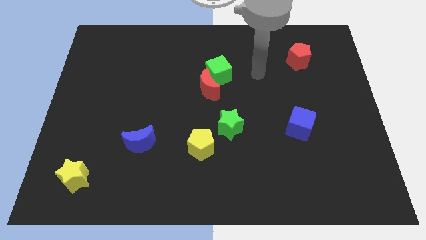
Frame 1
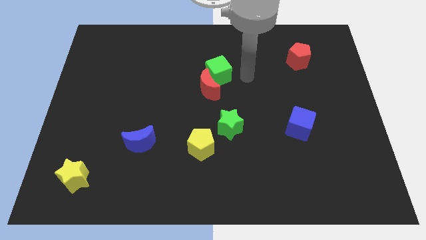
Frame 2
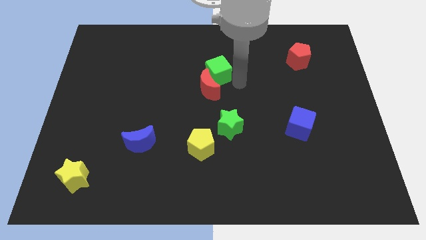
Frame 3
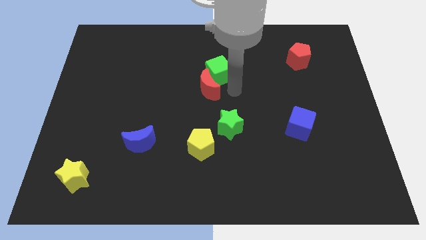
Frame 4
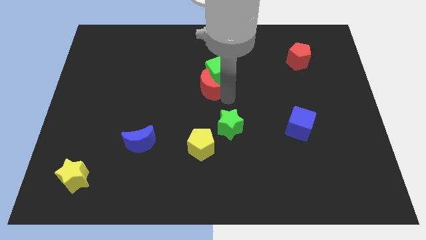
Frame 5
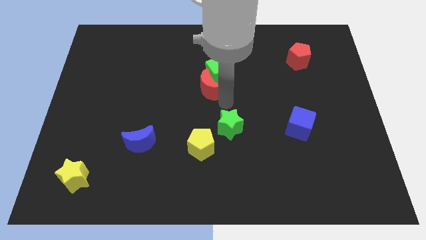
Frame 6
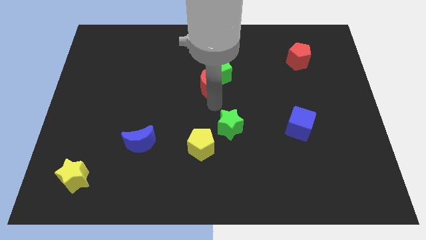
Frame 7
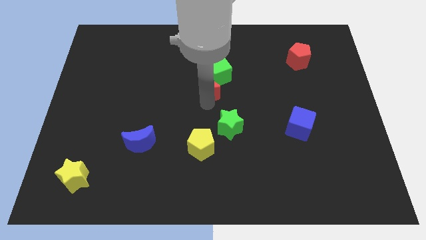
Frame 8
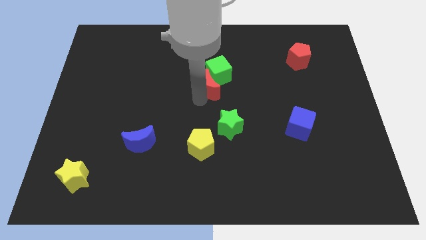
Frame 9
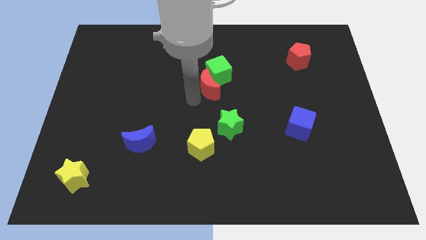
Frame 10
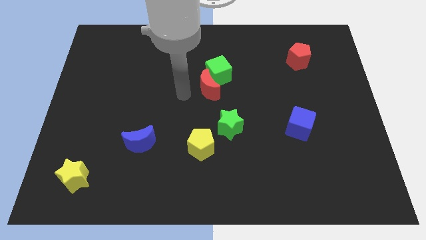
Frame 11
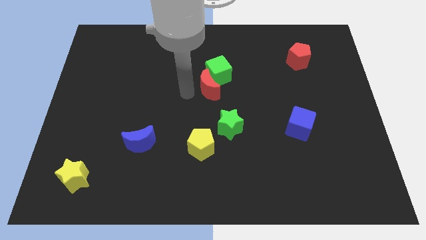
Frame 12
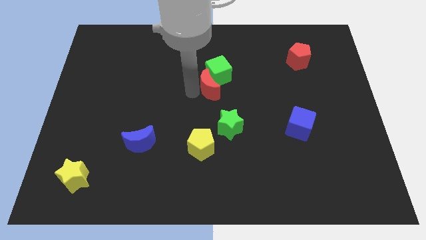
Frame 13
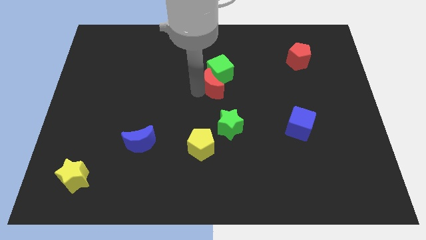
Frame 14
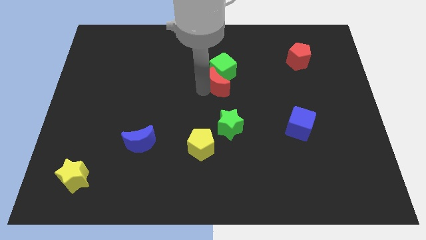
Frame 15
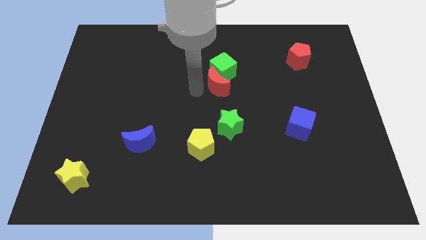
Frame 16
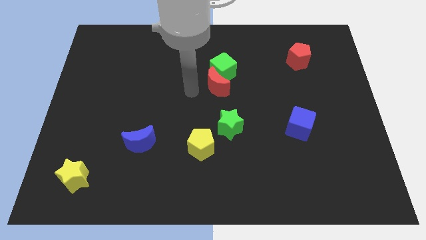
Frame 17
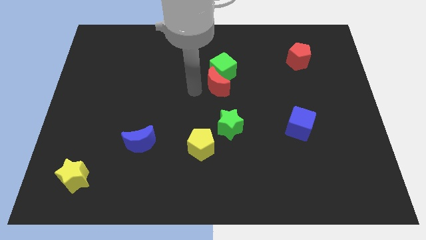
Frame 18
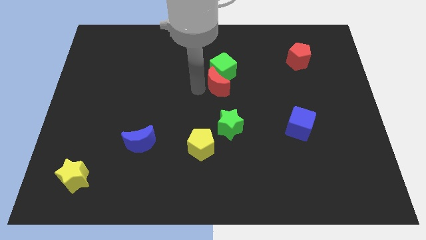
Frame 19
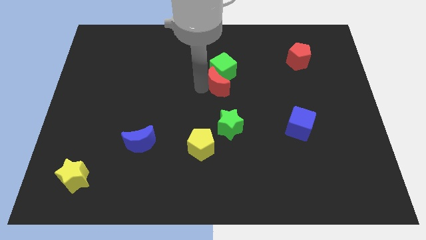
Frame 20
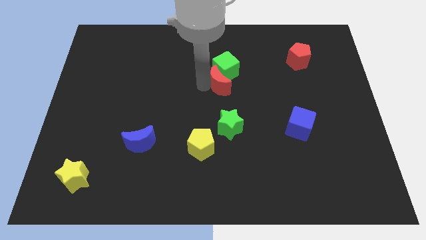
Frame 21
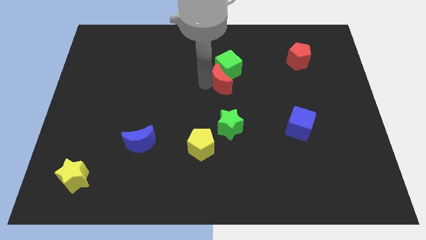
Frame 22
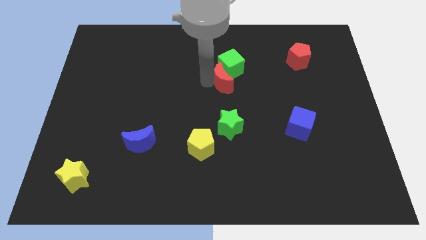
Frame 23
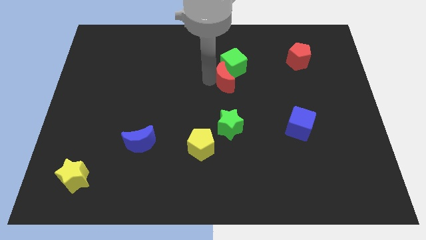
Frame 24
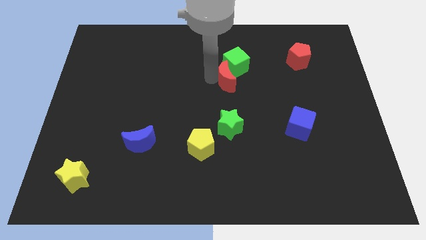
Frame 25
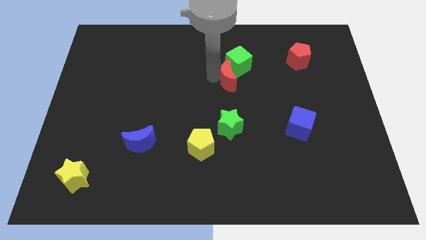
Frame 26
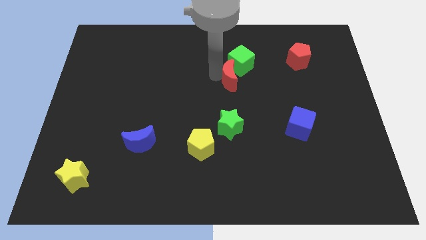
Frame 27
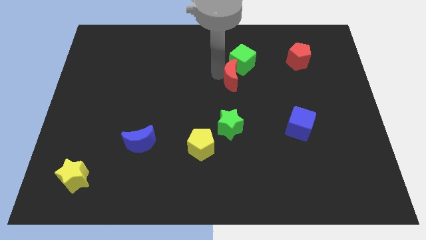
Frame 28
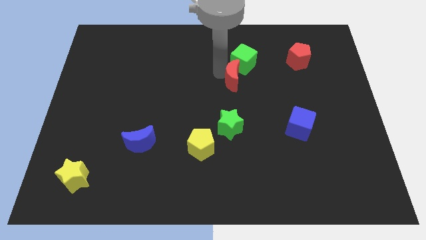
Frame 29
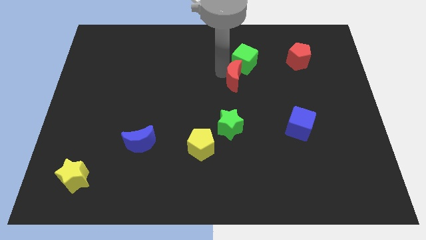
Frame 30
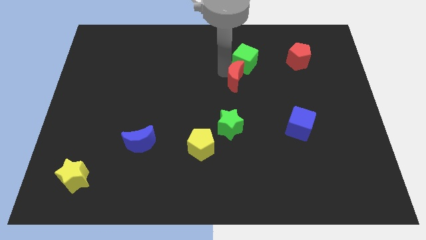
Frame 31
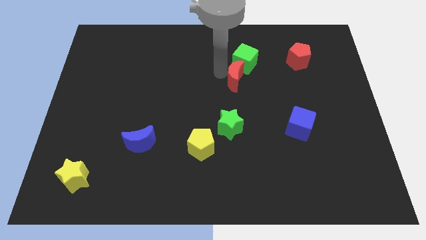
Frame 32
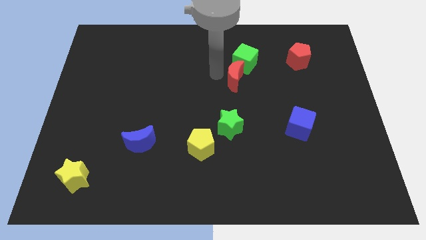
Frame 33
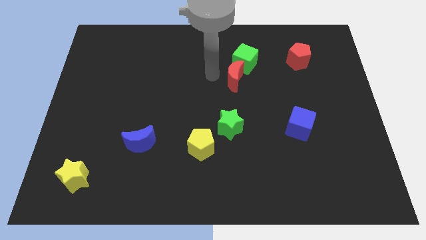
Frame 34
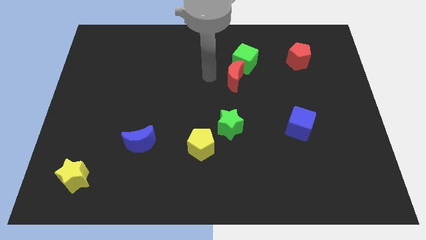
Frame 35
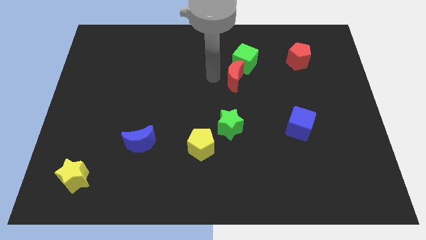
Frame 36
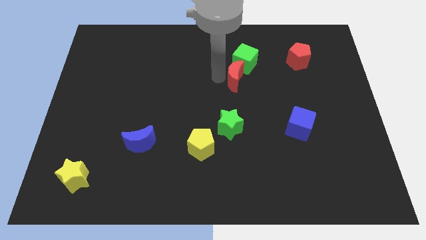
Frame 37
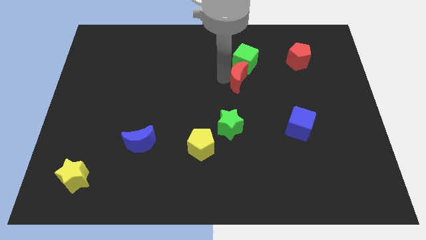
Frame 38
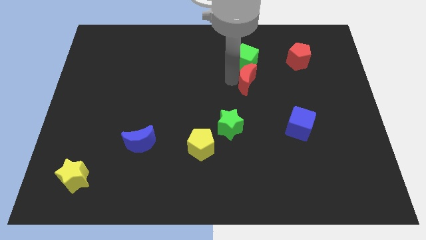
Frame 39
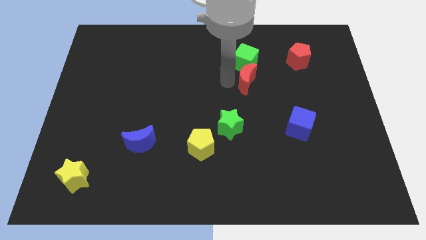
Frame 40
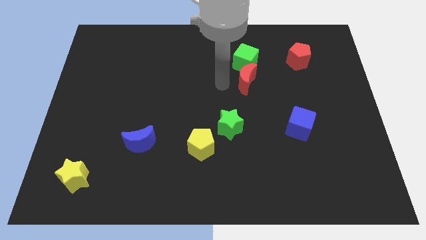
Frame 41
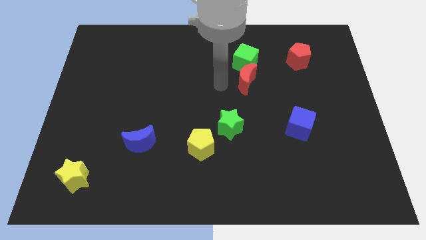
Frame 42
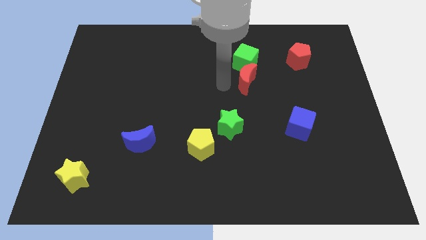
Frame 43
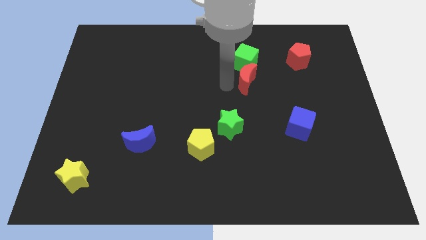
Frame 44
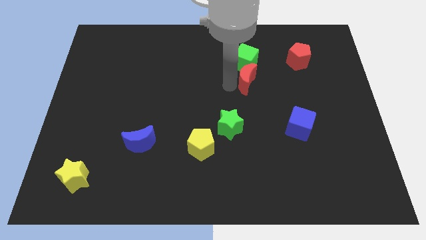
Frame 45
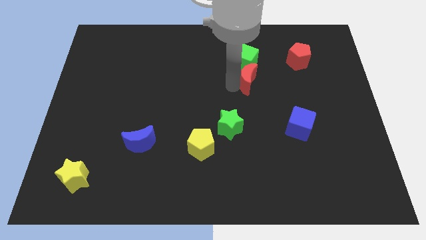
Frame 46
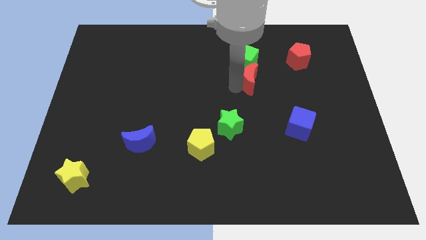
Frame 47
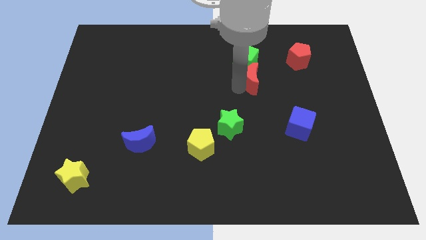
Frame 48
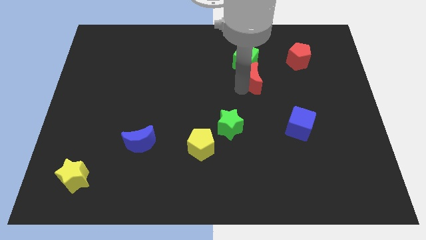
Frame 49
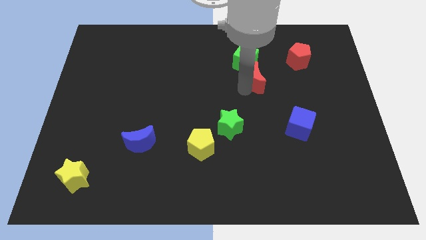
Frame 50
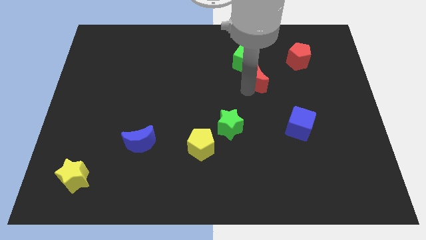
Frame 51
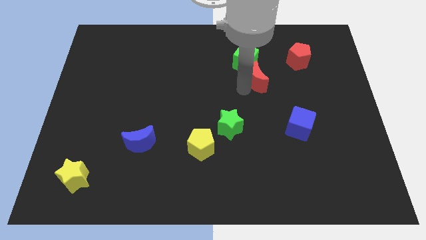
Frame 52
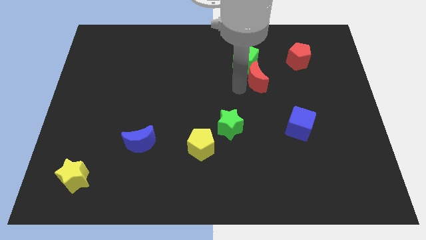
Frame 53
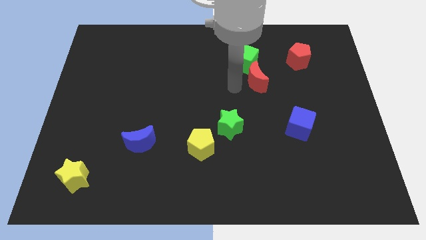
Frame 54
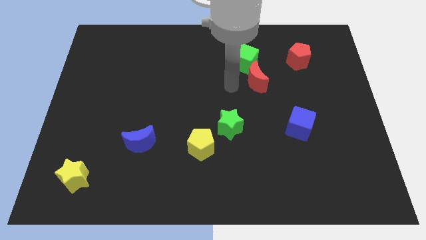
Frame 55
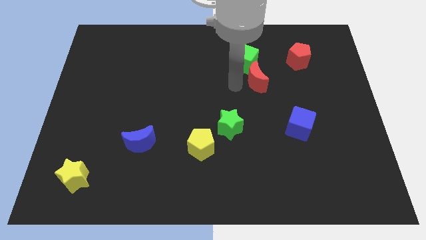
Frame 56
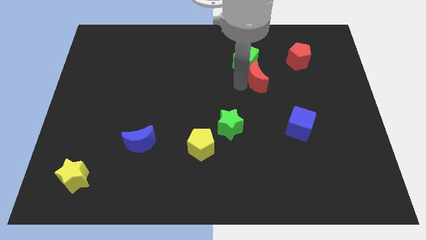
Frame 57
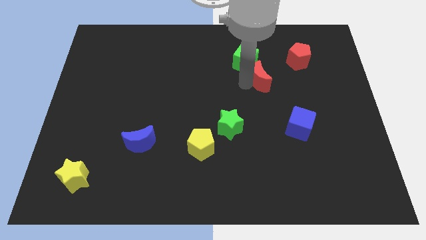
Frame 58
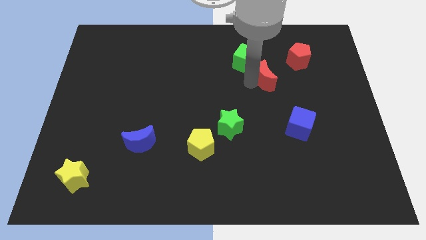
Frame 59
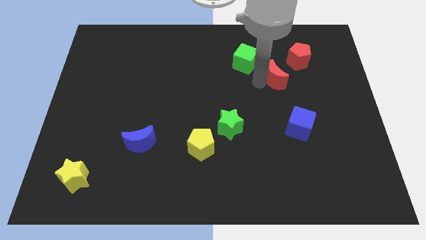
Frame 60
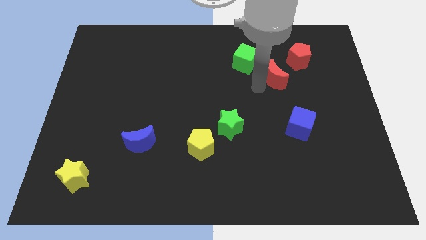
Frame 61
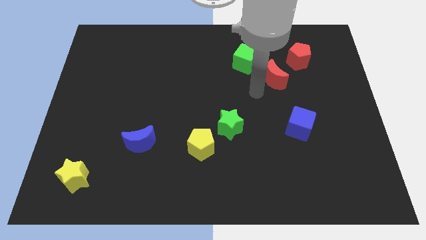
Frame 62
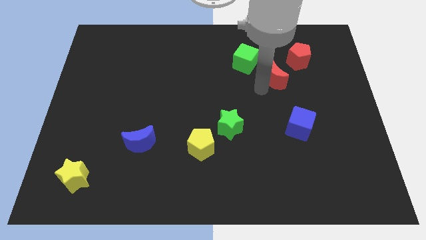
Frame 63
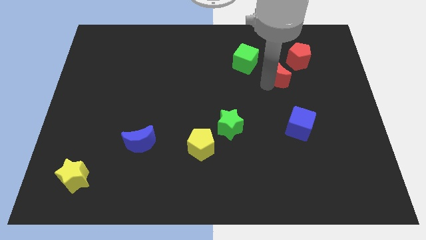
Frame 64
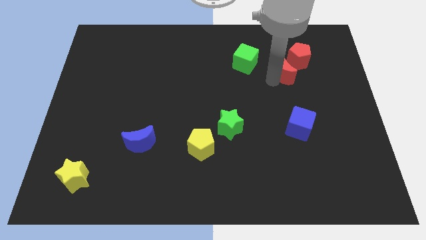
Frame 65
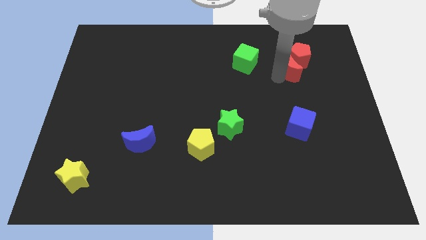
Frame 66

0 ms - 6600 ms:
slide the red moon towards the red pentagon
